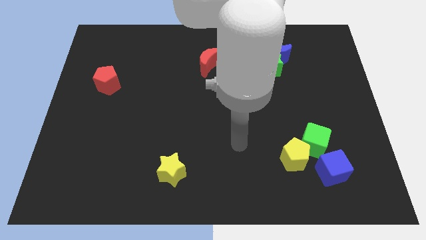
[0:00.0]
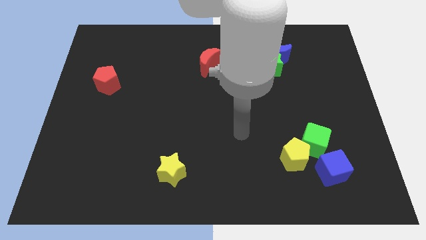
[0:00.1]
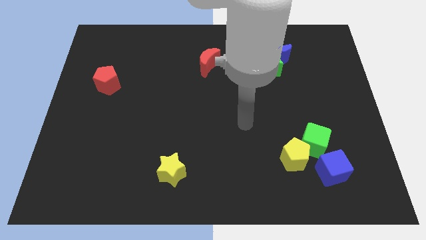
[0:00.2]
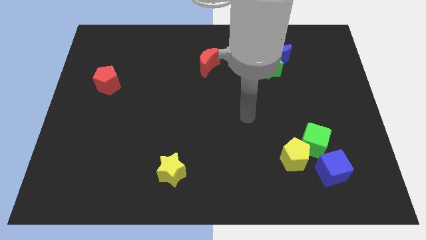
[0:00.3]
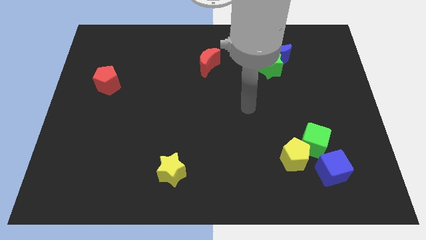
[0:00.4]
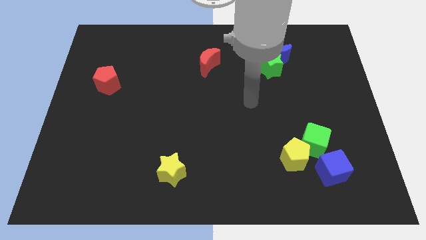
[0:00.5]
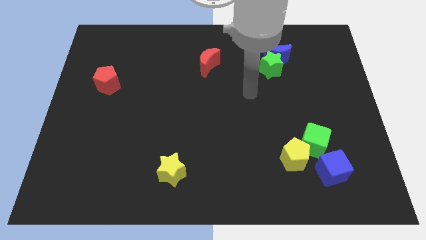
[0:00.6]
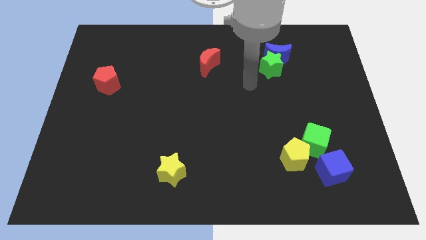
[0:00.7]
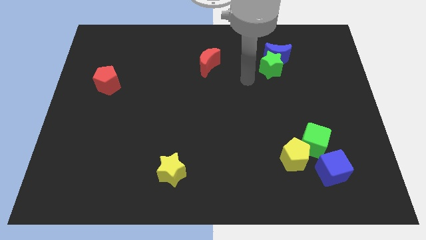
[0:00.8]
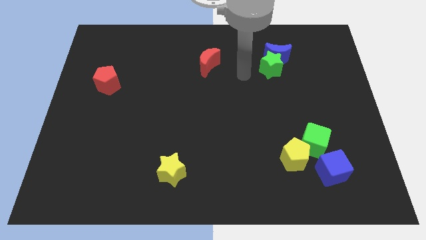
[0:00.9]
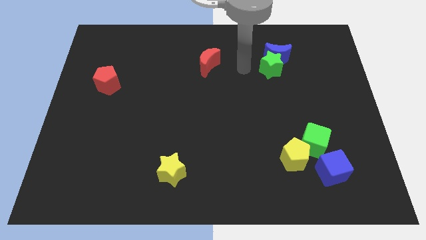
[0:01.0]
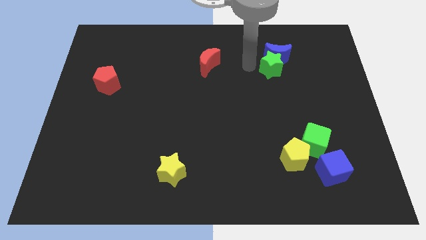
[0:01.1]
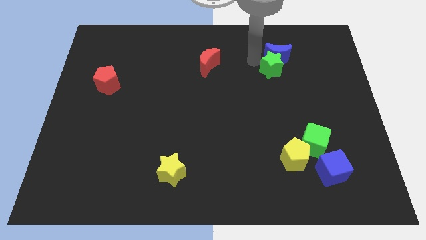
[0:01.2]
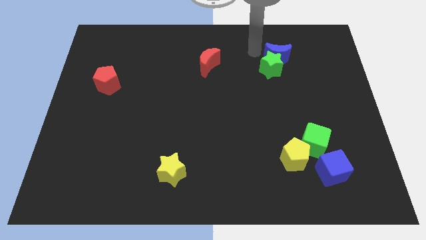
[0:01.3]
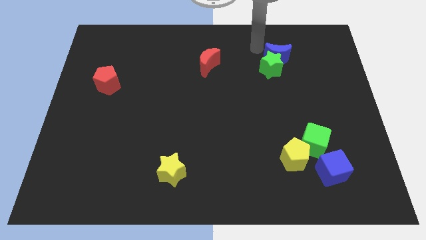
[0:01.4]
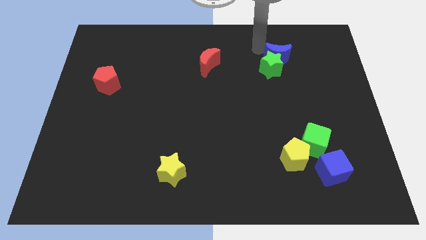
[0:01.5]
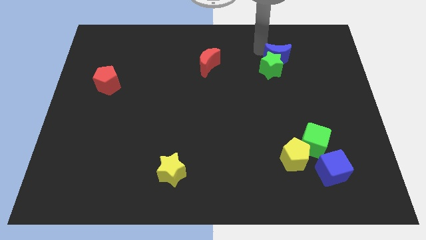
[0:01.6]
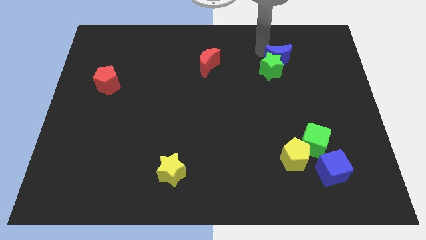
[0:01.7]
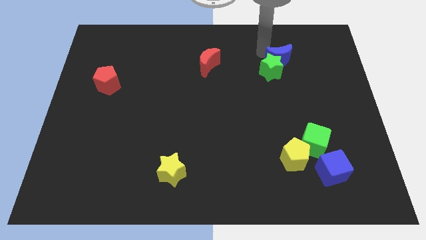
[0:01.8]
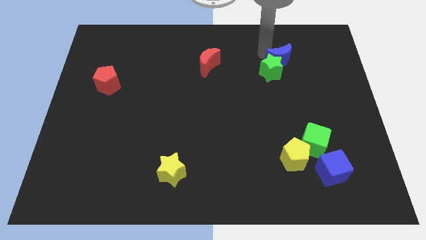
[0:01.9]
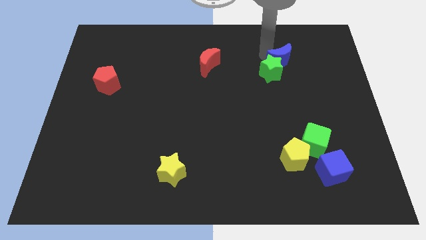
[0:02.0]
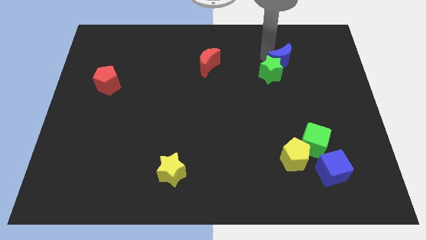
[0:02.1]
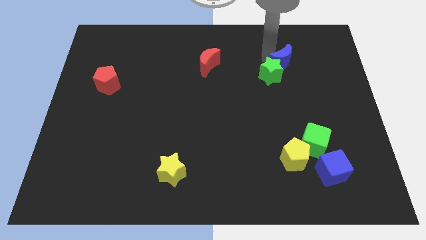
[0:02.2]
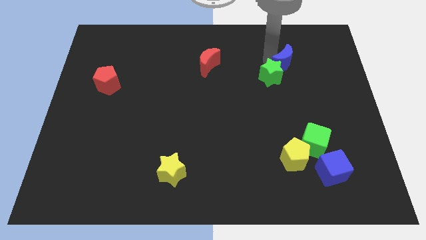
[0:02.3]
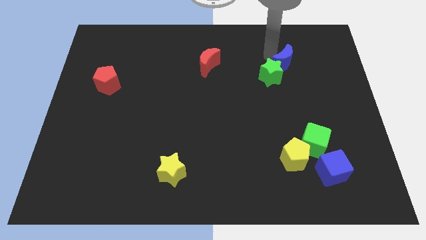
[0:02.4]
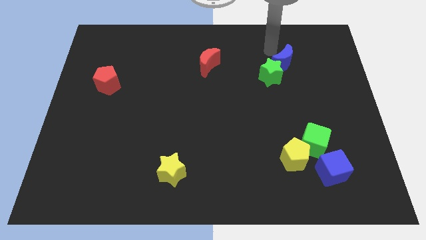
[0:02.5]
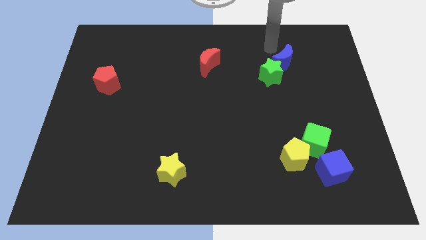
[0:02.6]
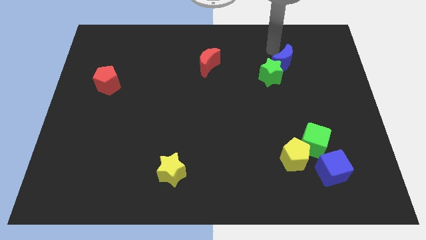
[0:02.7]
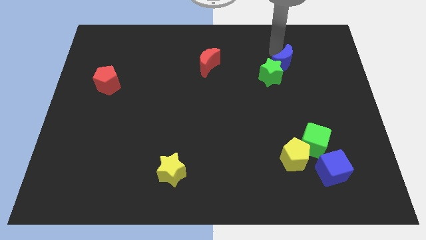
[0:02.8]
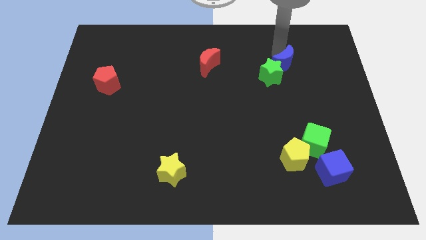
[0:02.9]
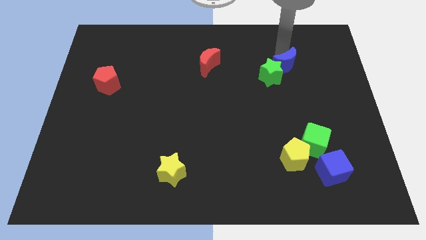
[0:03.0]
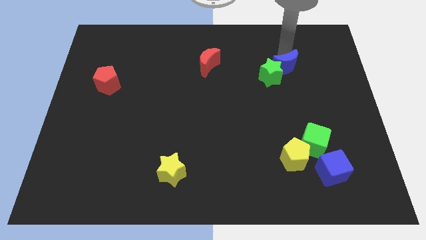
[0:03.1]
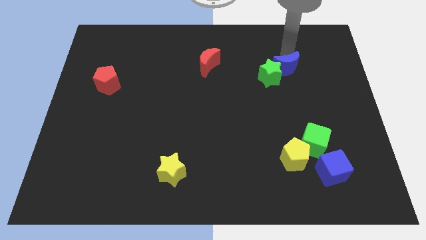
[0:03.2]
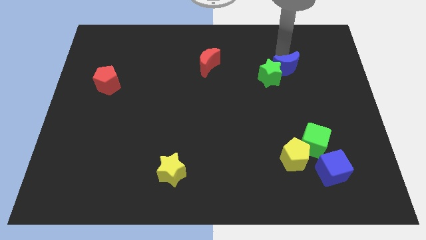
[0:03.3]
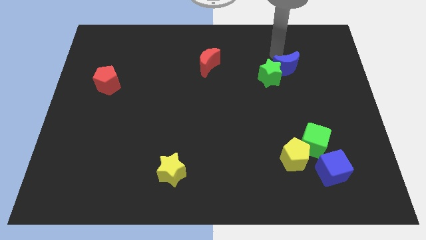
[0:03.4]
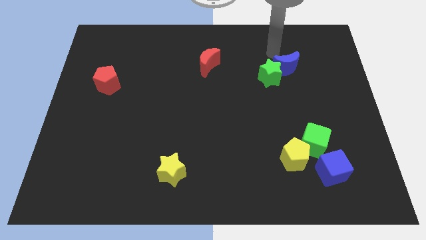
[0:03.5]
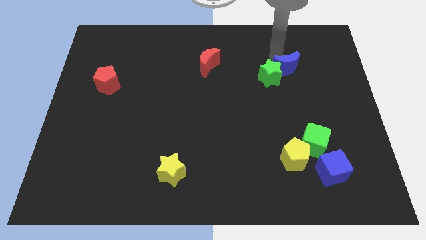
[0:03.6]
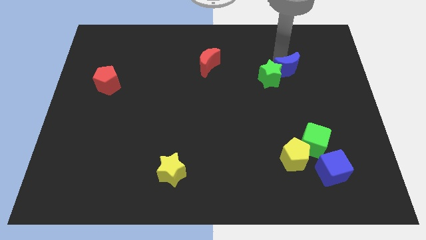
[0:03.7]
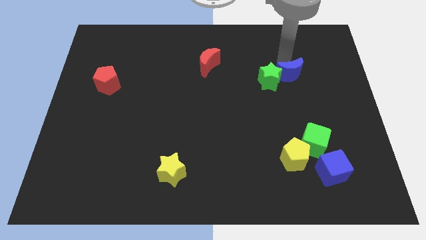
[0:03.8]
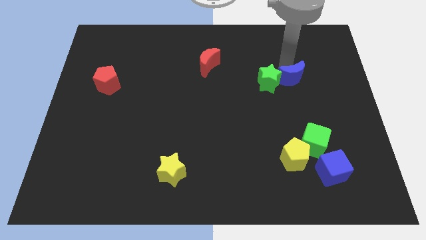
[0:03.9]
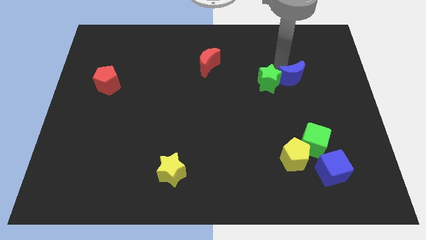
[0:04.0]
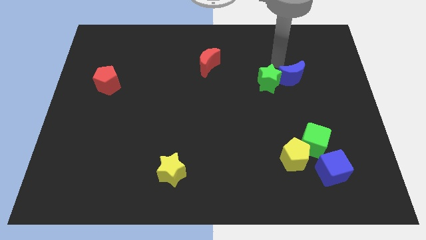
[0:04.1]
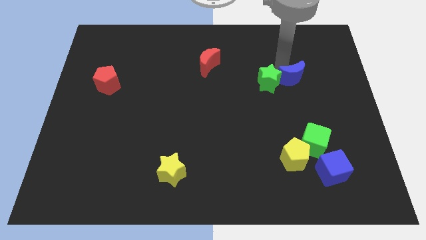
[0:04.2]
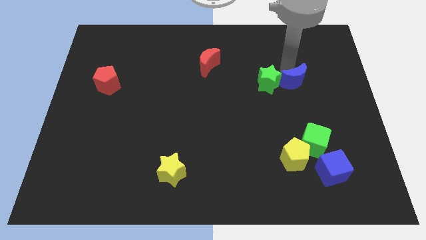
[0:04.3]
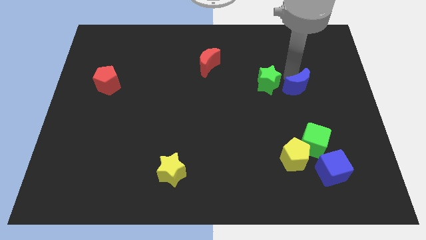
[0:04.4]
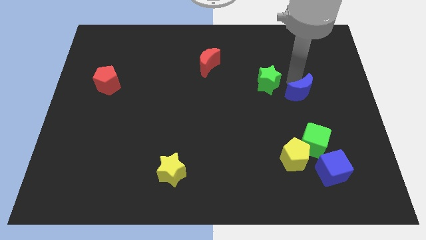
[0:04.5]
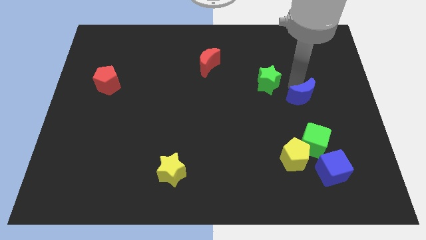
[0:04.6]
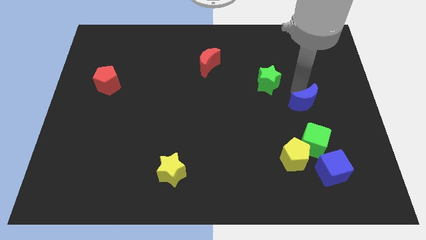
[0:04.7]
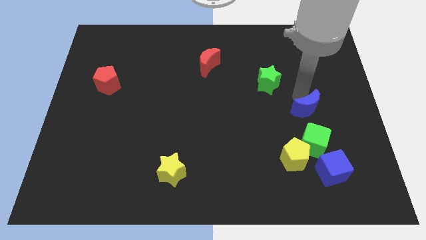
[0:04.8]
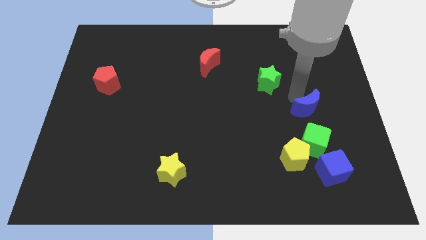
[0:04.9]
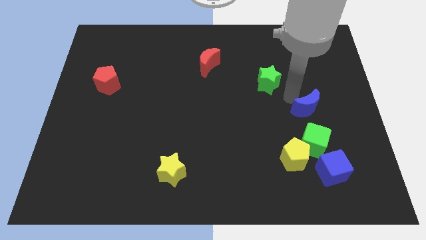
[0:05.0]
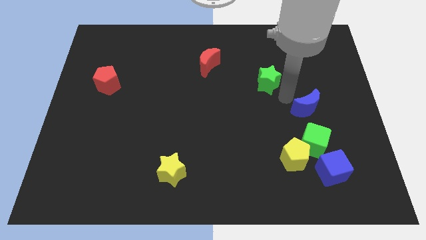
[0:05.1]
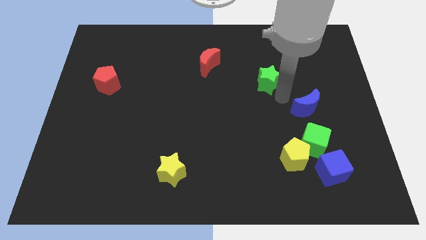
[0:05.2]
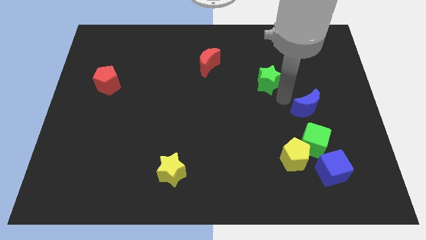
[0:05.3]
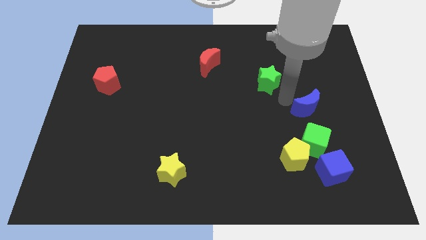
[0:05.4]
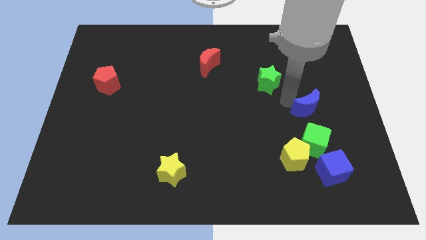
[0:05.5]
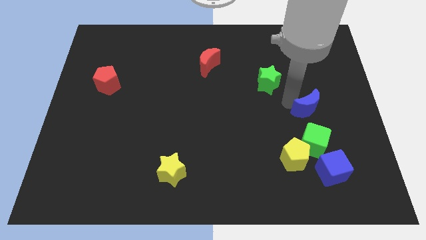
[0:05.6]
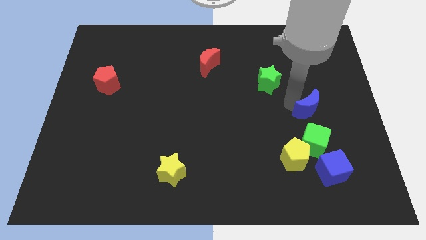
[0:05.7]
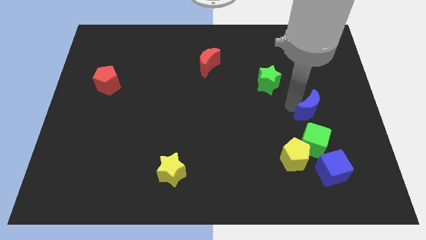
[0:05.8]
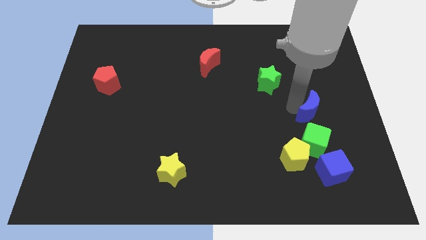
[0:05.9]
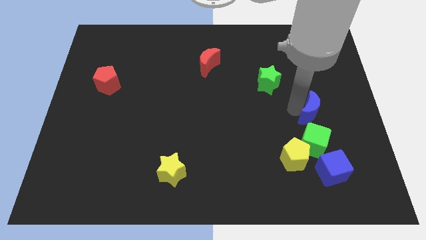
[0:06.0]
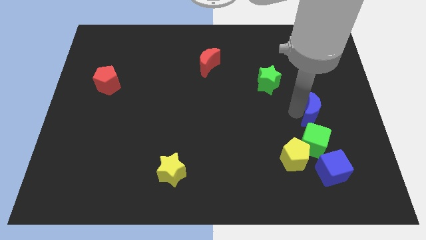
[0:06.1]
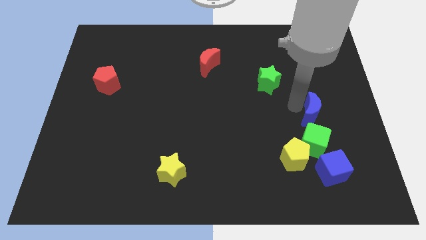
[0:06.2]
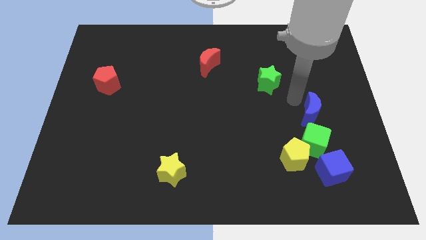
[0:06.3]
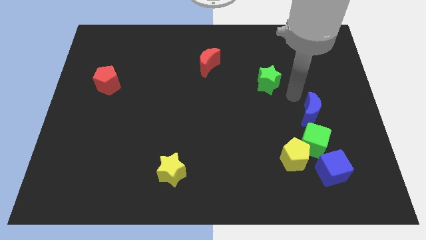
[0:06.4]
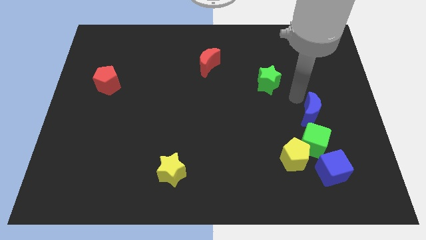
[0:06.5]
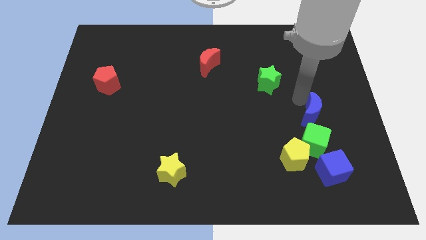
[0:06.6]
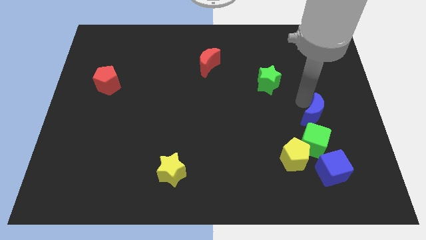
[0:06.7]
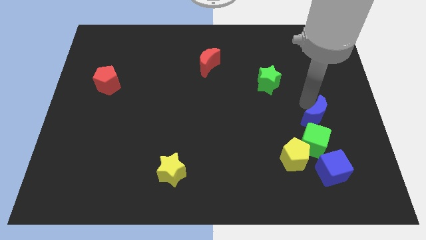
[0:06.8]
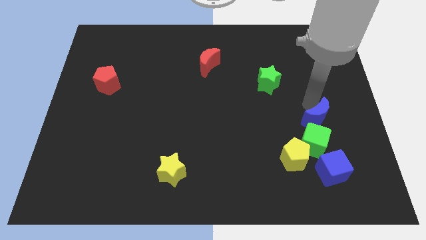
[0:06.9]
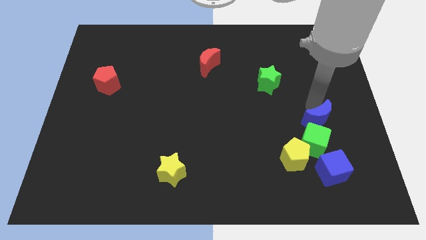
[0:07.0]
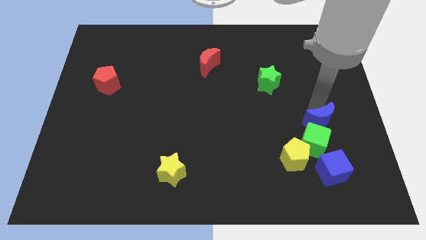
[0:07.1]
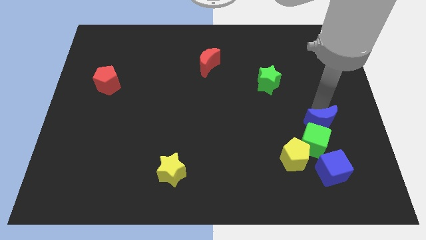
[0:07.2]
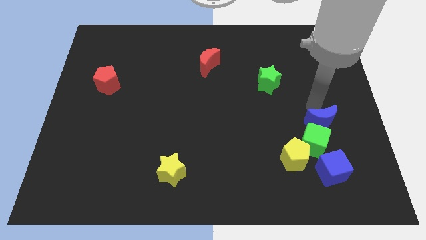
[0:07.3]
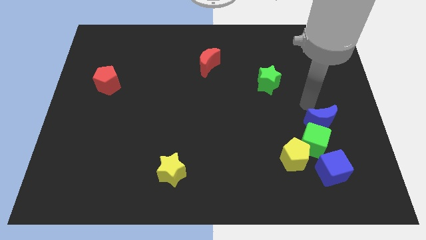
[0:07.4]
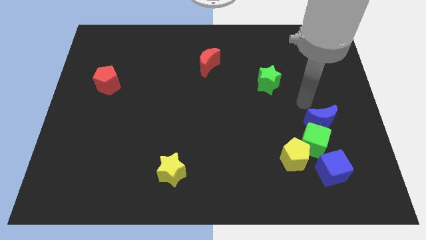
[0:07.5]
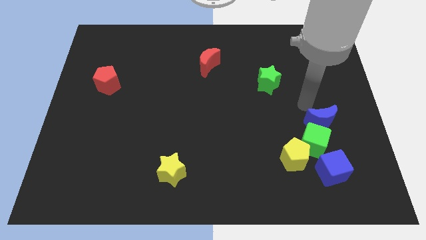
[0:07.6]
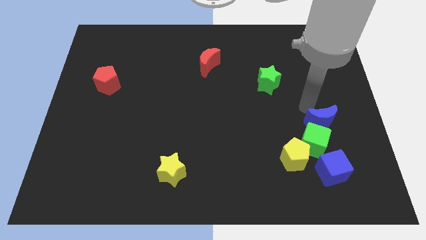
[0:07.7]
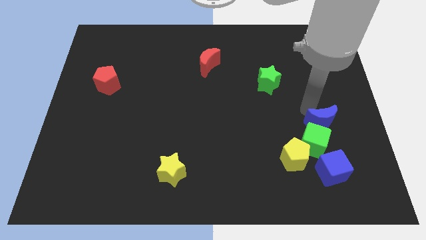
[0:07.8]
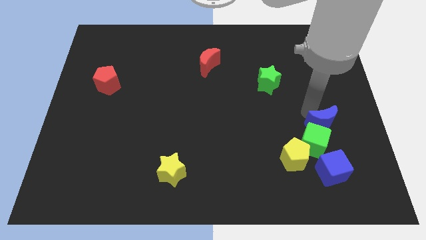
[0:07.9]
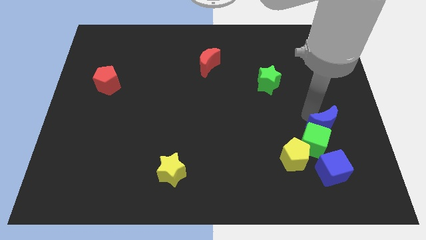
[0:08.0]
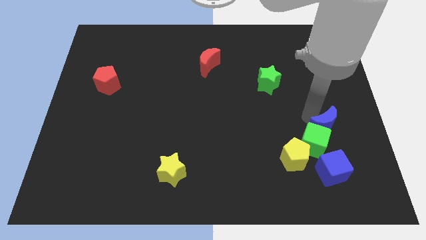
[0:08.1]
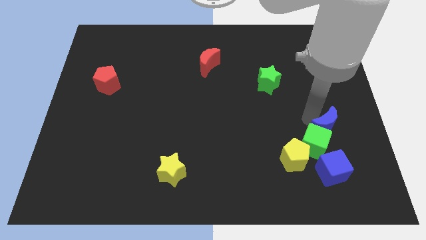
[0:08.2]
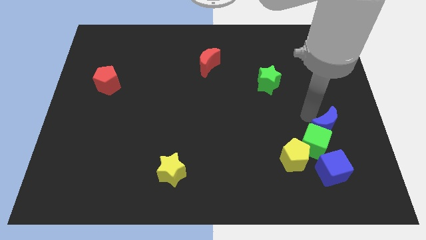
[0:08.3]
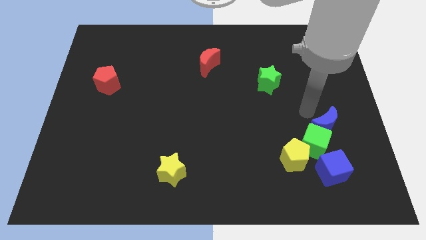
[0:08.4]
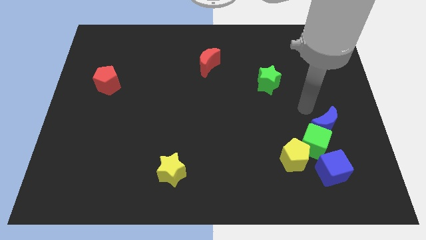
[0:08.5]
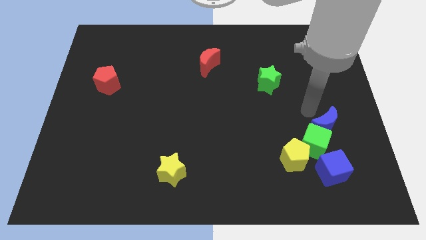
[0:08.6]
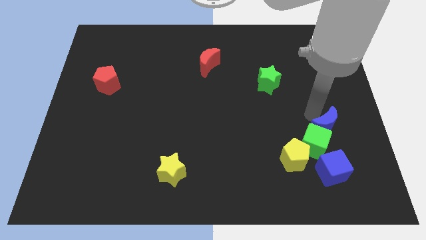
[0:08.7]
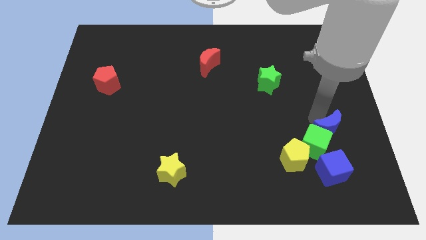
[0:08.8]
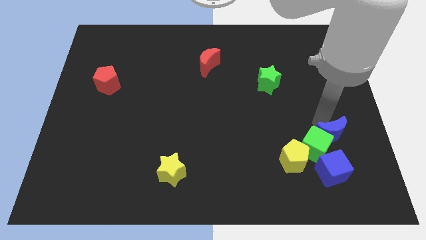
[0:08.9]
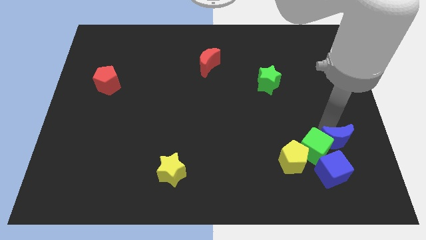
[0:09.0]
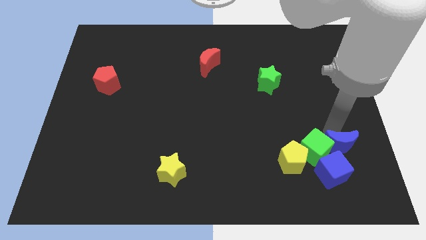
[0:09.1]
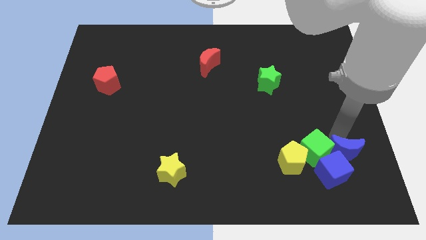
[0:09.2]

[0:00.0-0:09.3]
move the blue moon to the blue cube
